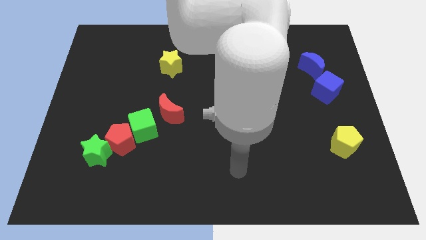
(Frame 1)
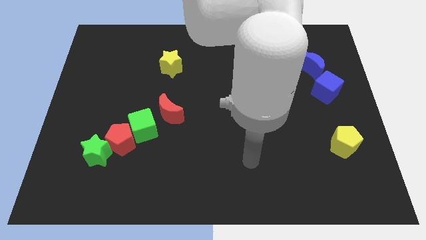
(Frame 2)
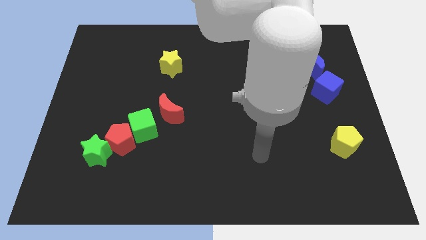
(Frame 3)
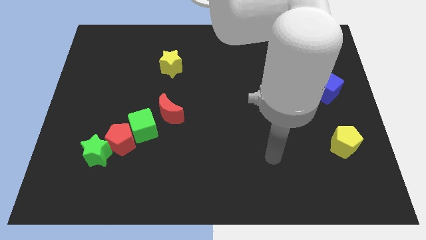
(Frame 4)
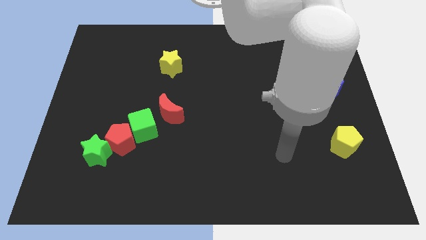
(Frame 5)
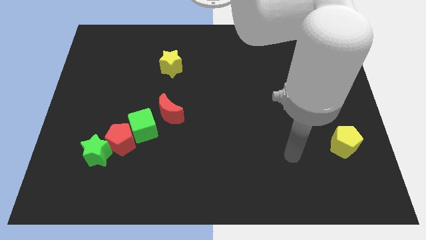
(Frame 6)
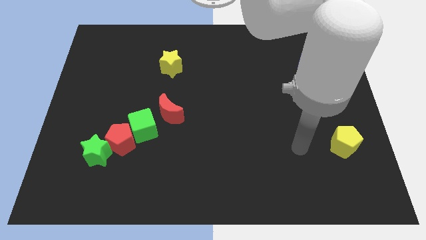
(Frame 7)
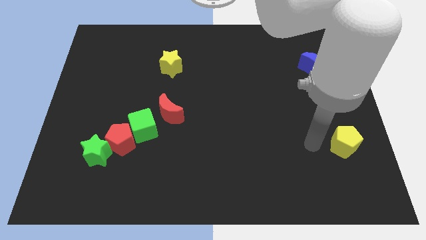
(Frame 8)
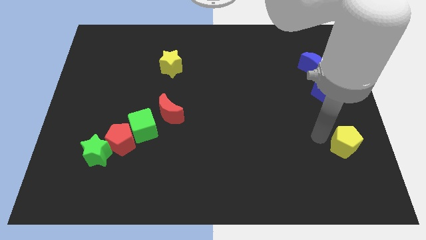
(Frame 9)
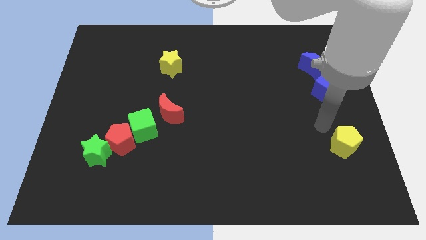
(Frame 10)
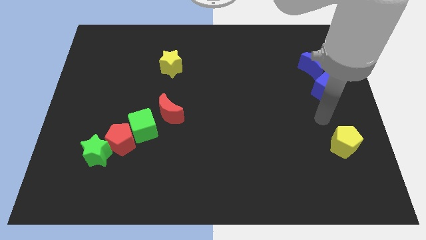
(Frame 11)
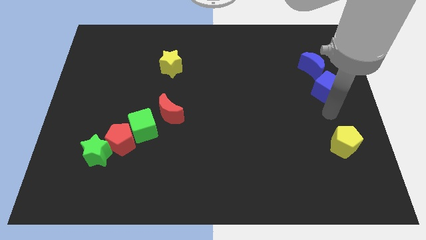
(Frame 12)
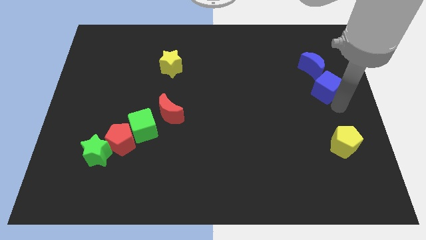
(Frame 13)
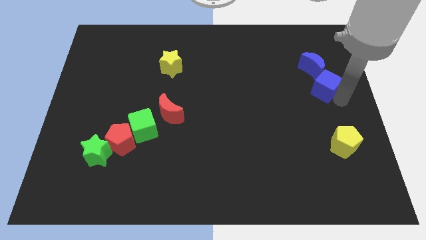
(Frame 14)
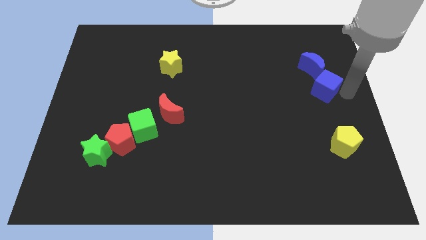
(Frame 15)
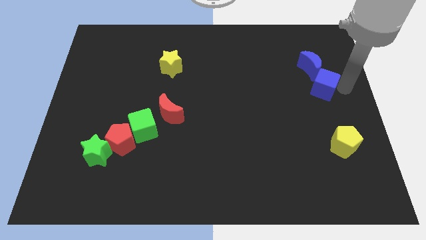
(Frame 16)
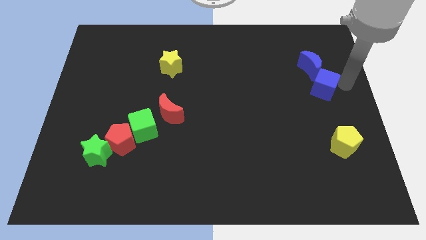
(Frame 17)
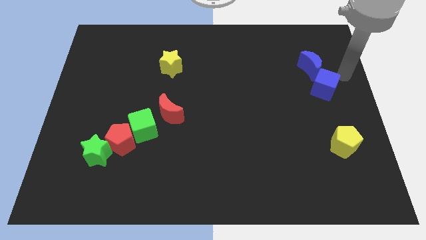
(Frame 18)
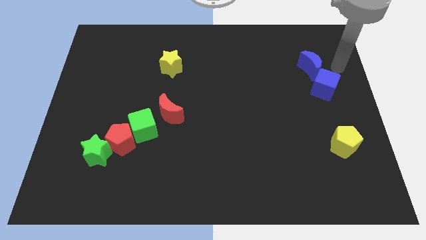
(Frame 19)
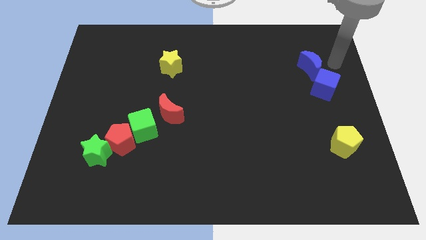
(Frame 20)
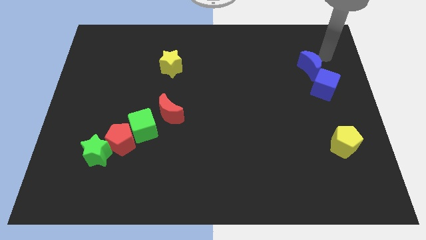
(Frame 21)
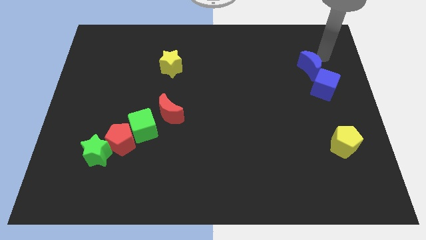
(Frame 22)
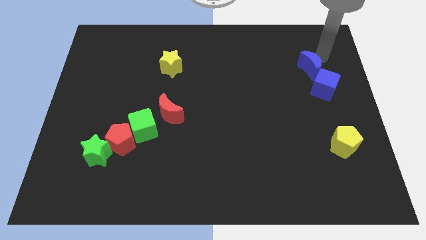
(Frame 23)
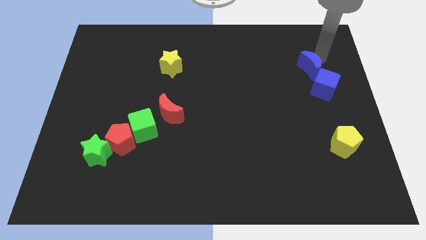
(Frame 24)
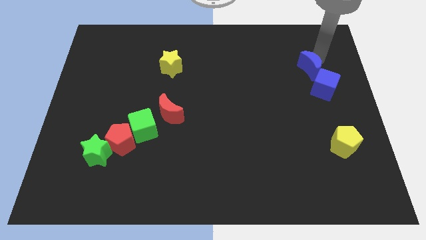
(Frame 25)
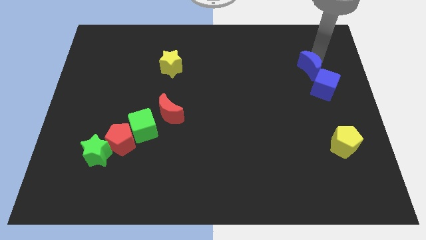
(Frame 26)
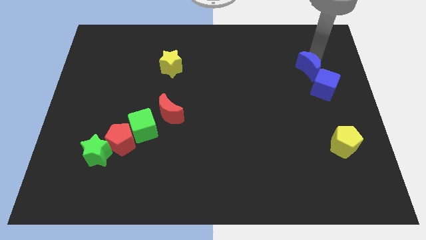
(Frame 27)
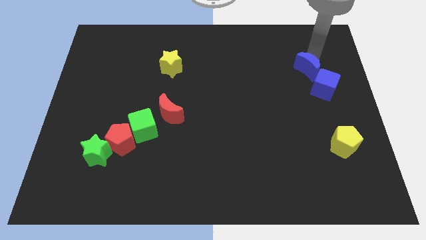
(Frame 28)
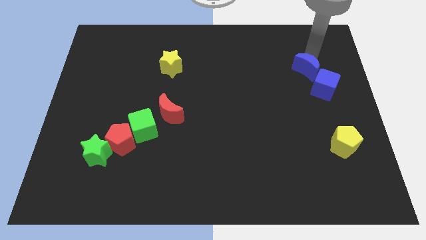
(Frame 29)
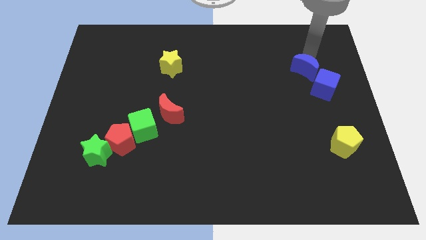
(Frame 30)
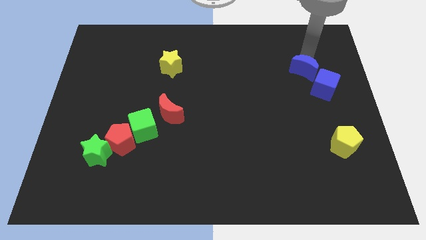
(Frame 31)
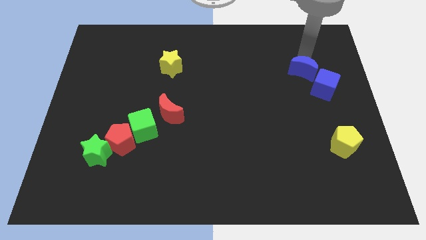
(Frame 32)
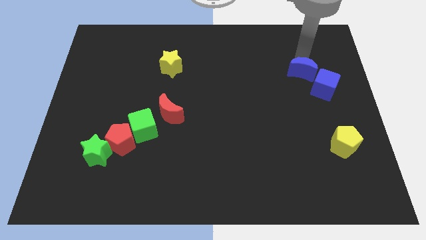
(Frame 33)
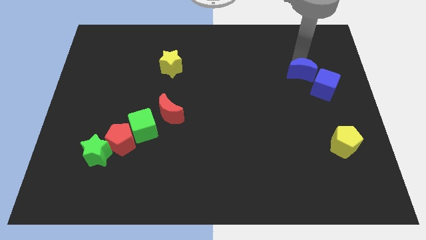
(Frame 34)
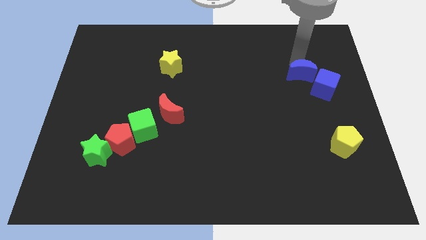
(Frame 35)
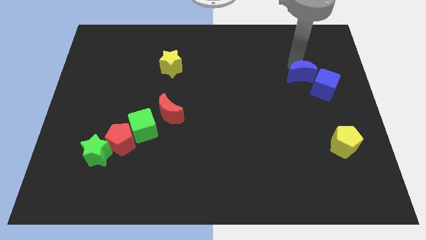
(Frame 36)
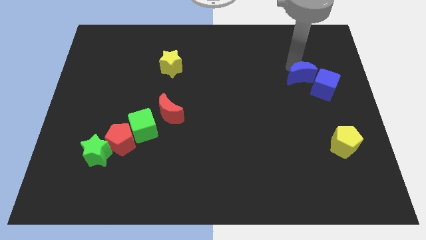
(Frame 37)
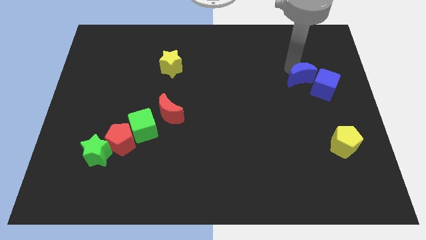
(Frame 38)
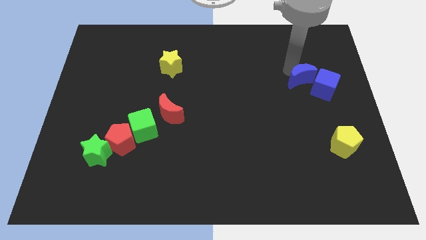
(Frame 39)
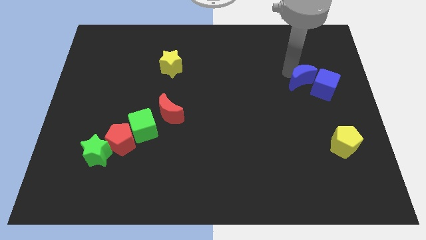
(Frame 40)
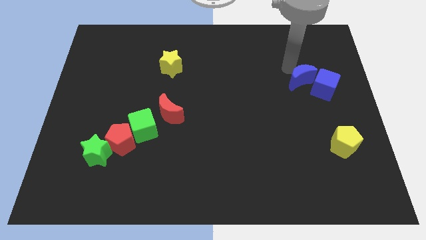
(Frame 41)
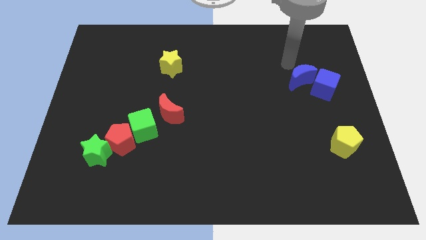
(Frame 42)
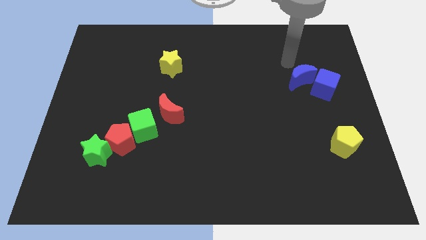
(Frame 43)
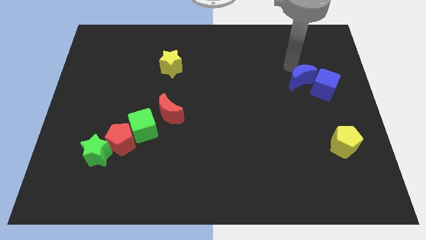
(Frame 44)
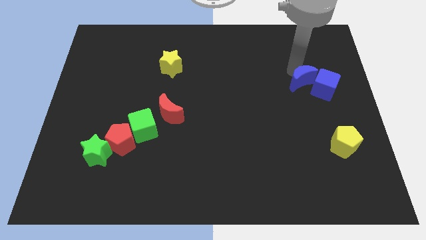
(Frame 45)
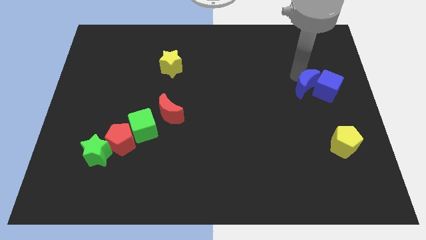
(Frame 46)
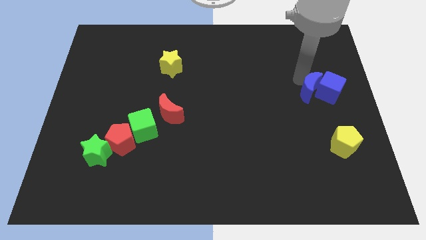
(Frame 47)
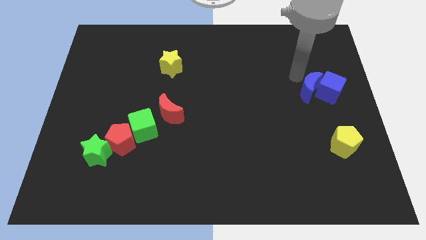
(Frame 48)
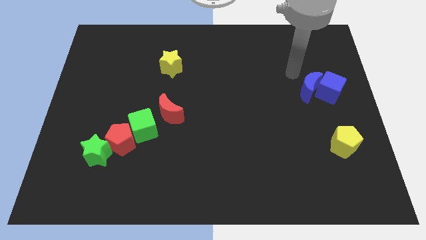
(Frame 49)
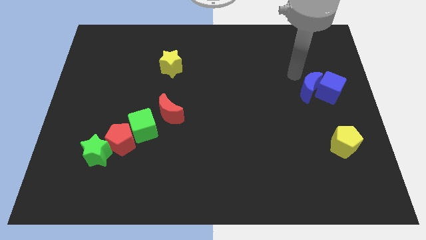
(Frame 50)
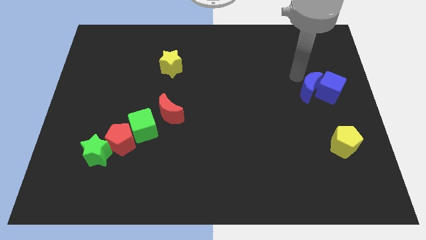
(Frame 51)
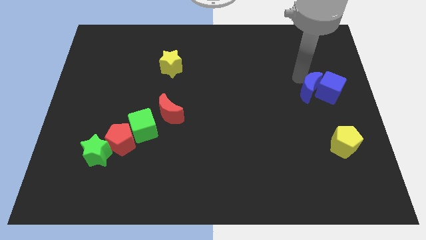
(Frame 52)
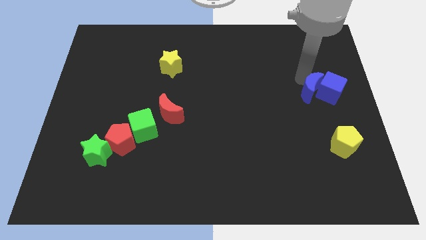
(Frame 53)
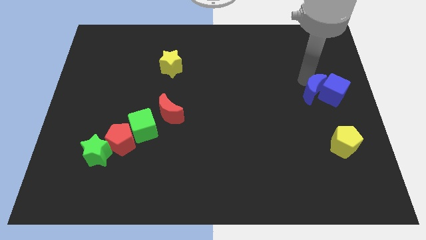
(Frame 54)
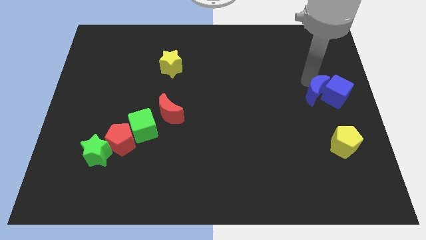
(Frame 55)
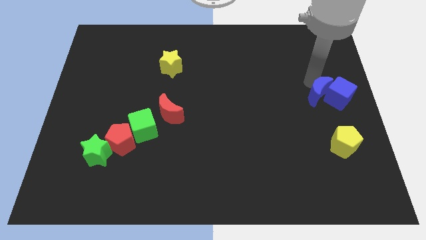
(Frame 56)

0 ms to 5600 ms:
slide the blue moon to the top of the yellow pentagon

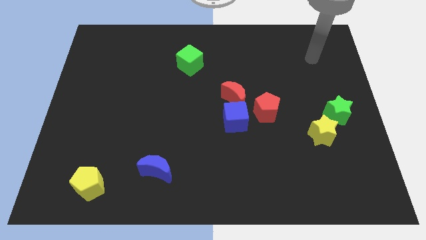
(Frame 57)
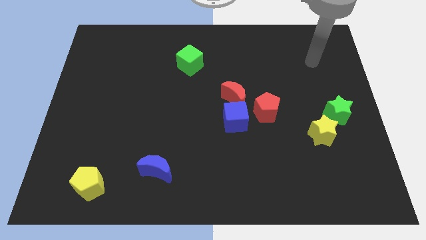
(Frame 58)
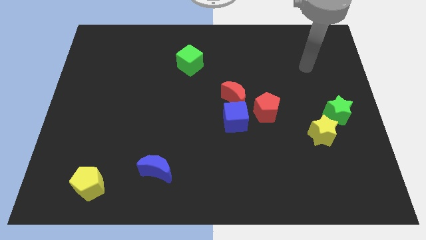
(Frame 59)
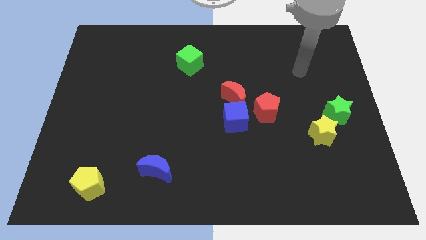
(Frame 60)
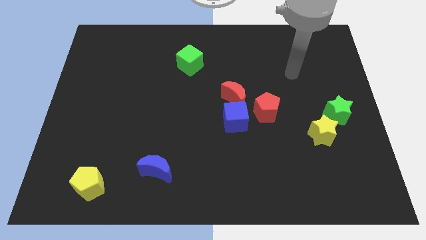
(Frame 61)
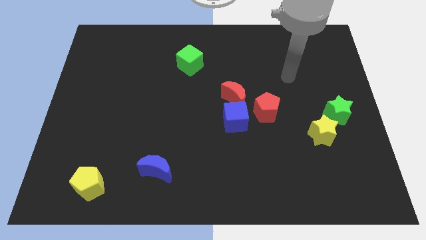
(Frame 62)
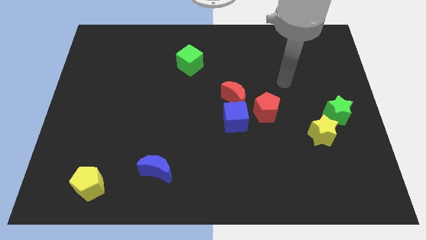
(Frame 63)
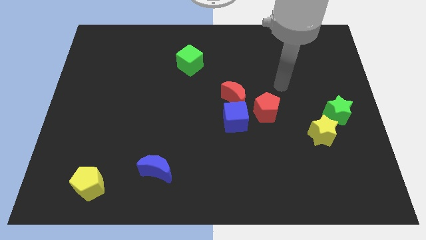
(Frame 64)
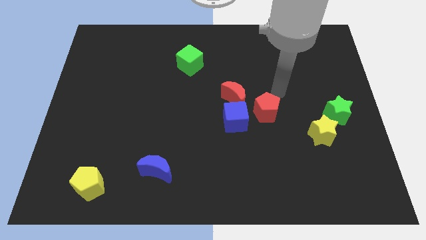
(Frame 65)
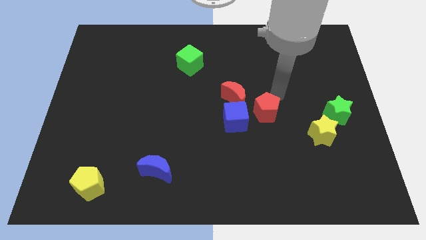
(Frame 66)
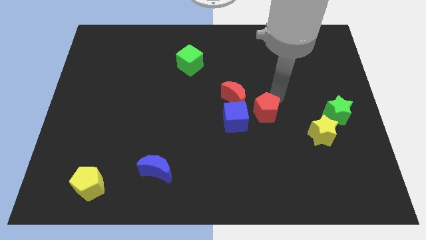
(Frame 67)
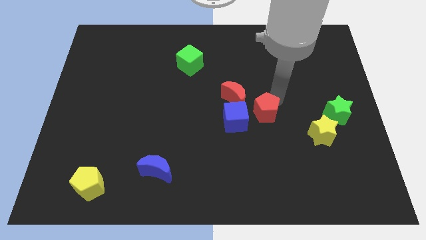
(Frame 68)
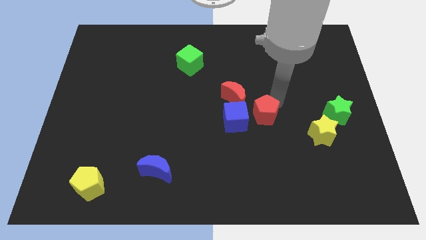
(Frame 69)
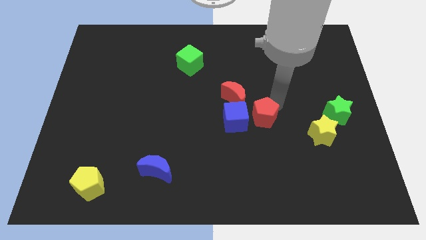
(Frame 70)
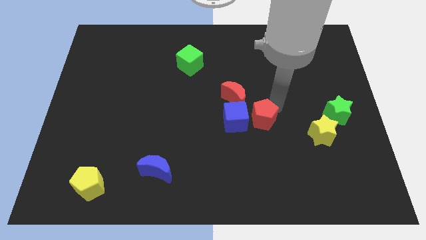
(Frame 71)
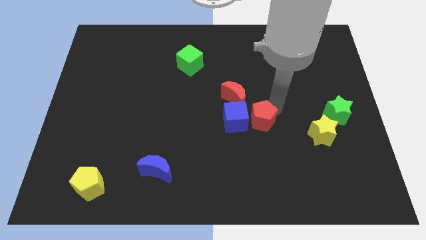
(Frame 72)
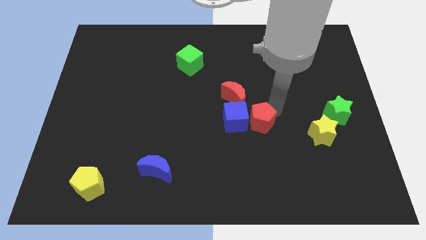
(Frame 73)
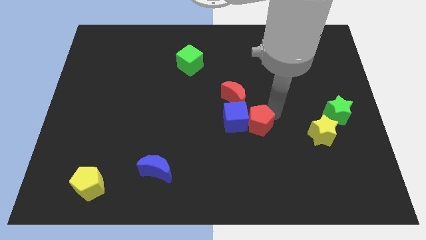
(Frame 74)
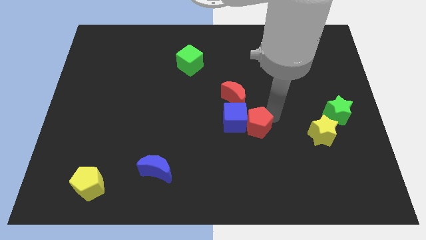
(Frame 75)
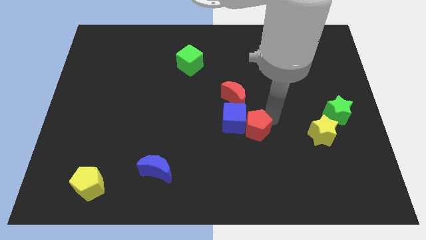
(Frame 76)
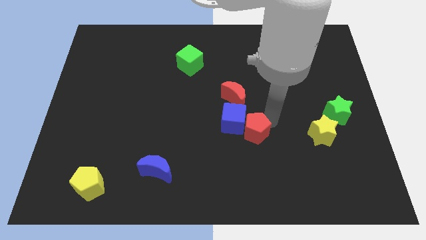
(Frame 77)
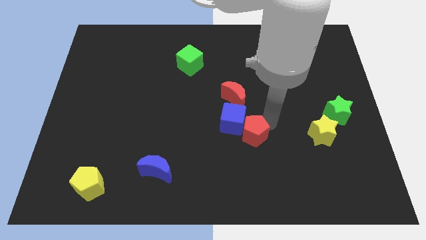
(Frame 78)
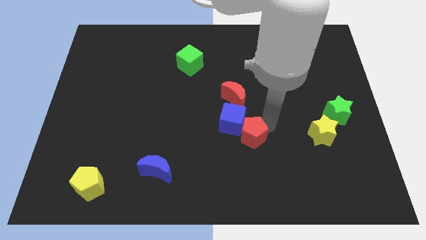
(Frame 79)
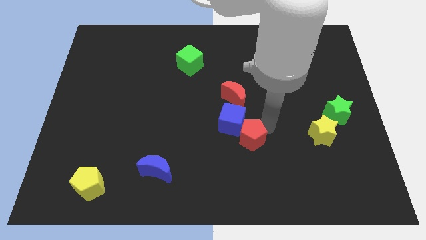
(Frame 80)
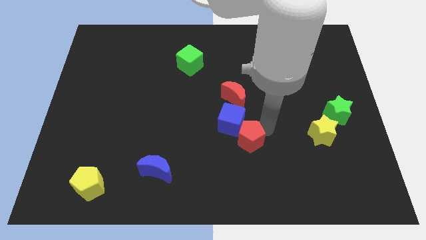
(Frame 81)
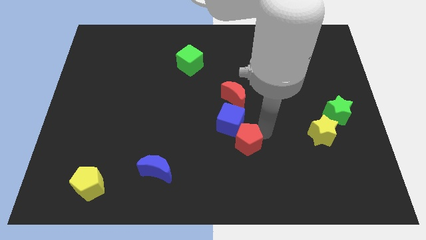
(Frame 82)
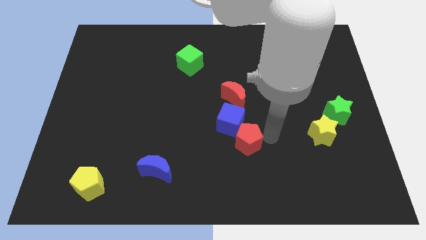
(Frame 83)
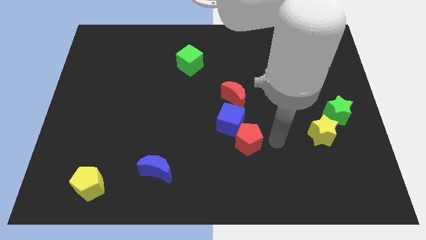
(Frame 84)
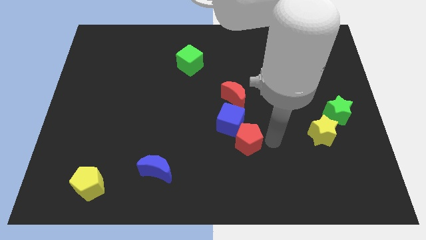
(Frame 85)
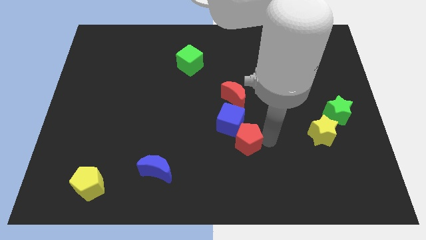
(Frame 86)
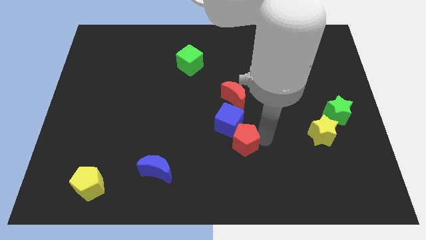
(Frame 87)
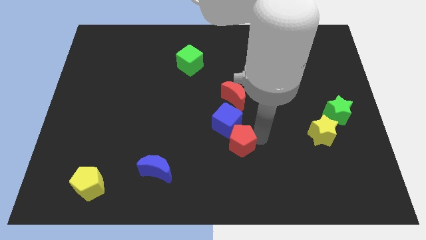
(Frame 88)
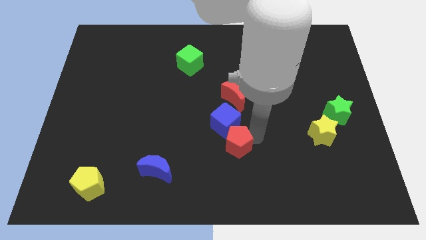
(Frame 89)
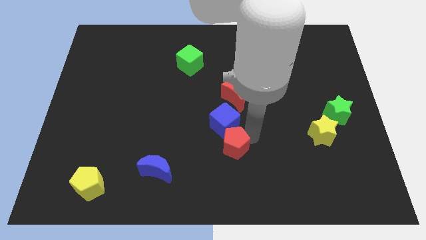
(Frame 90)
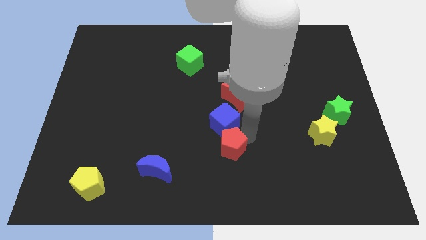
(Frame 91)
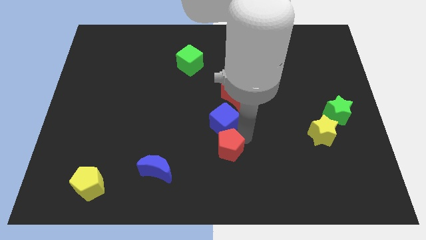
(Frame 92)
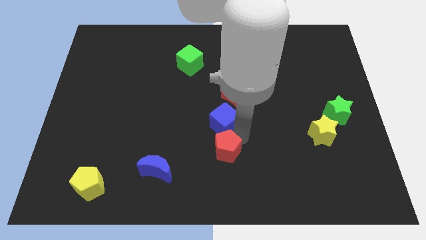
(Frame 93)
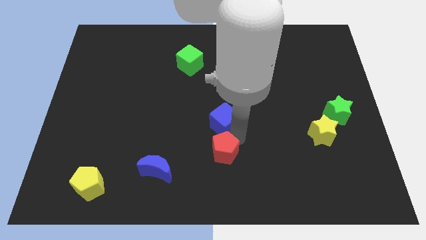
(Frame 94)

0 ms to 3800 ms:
push the red pentagon to the bottom left of the blue cube
